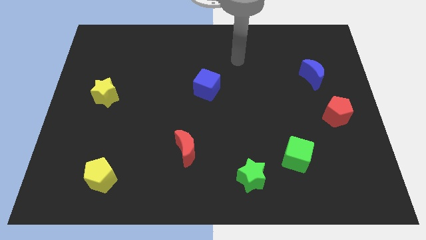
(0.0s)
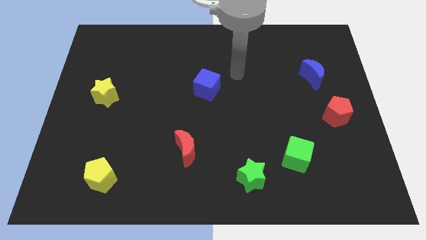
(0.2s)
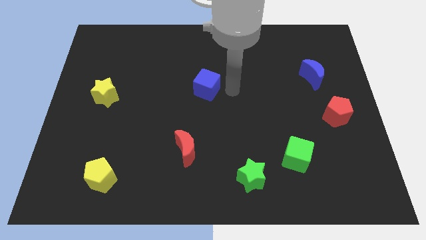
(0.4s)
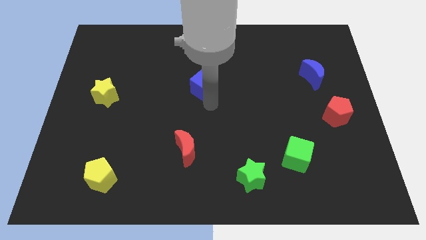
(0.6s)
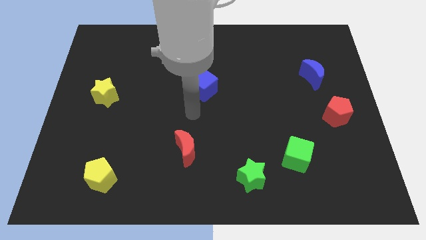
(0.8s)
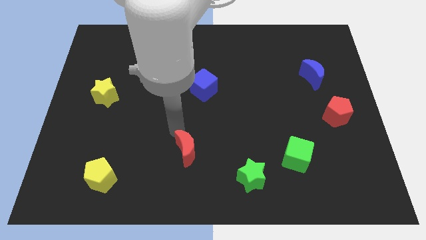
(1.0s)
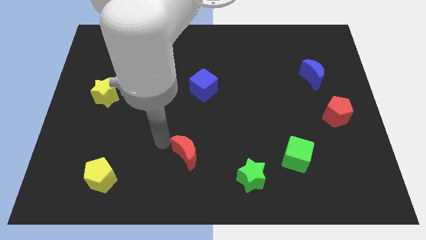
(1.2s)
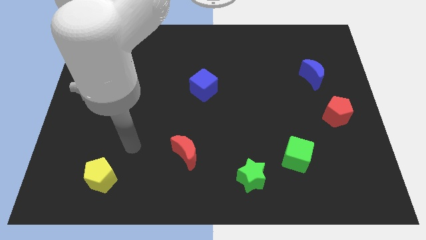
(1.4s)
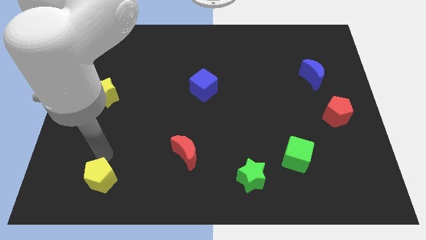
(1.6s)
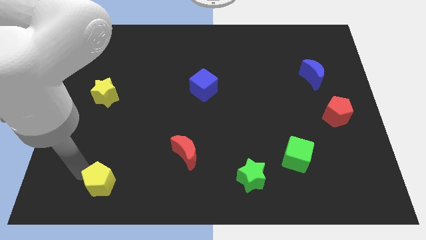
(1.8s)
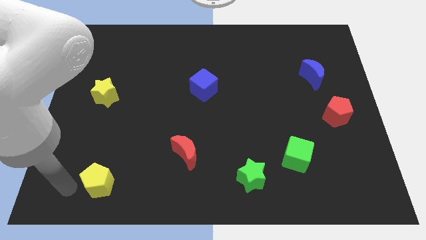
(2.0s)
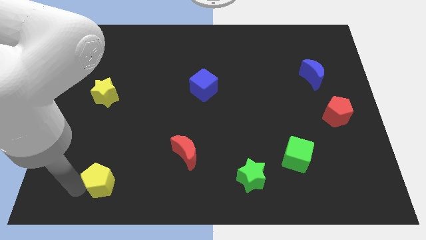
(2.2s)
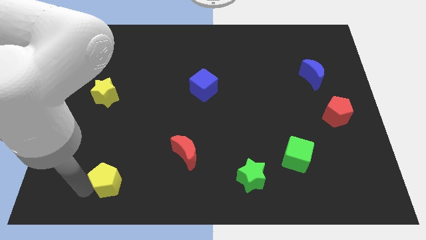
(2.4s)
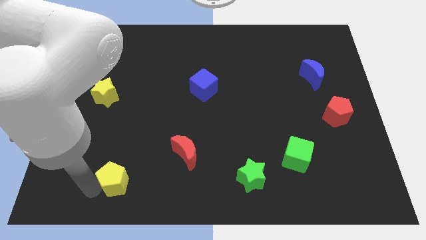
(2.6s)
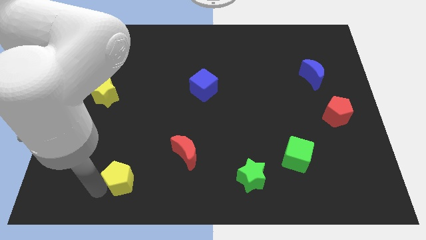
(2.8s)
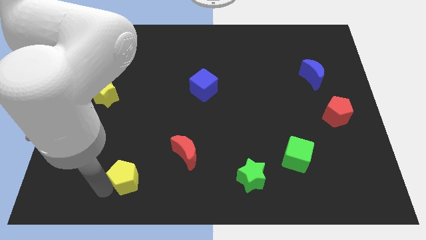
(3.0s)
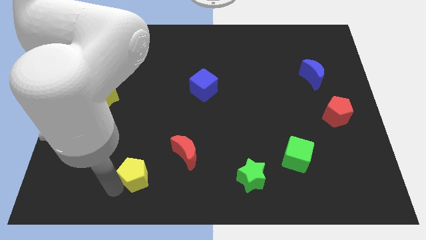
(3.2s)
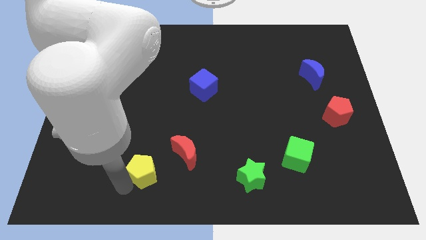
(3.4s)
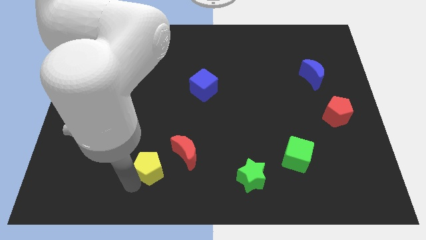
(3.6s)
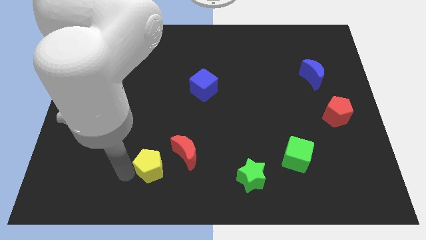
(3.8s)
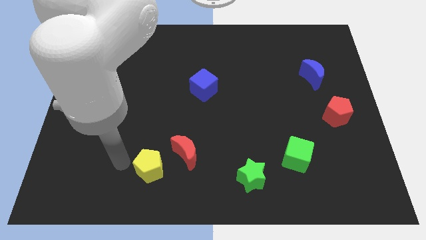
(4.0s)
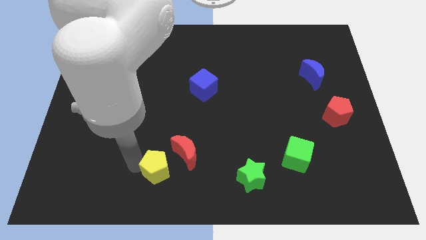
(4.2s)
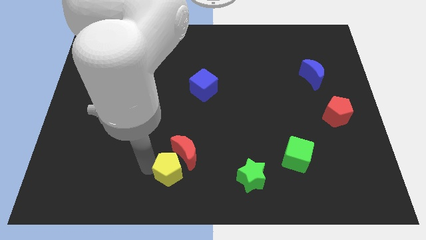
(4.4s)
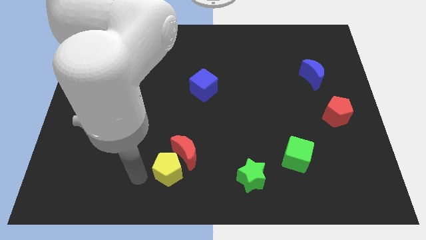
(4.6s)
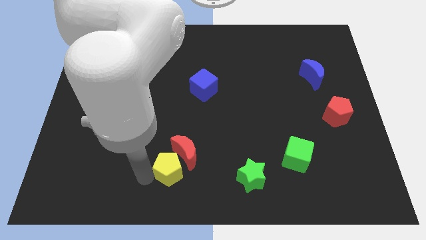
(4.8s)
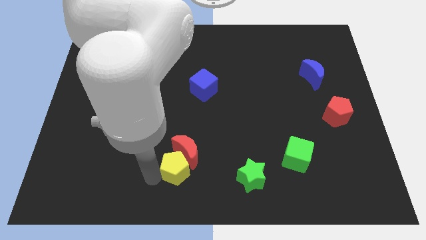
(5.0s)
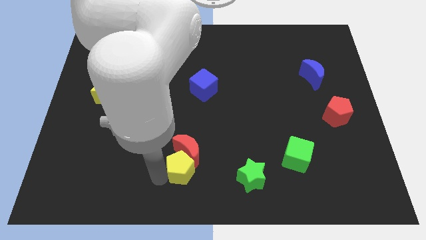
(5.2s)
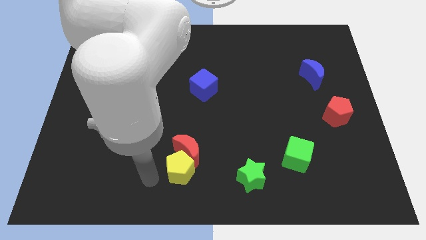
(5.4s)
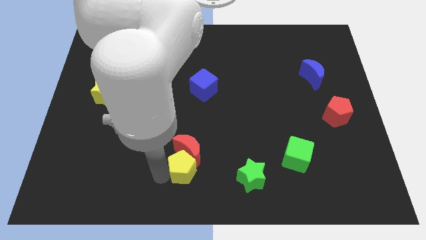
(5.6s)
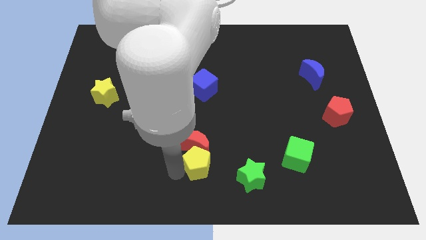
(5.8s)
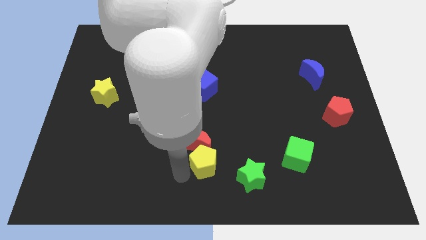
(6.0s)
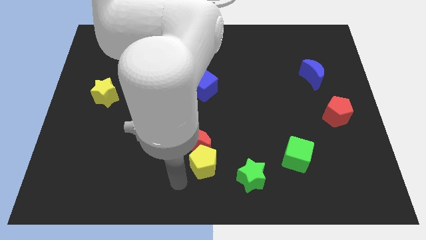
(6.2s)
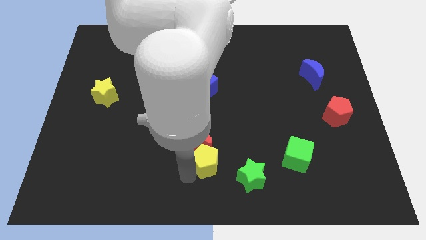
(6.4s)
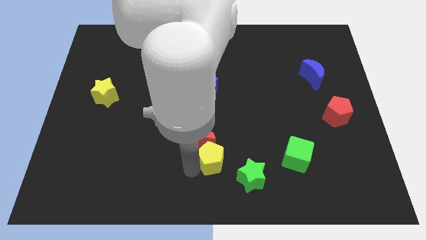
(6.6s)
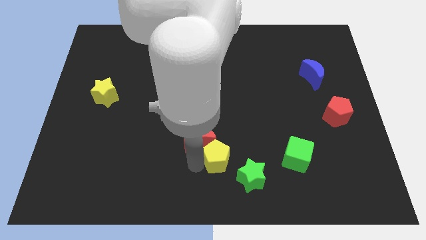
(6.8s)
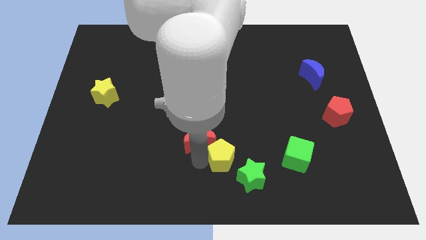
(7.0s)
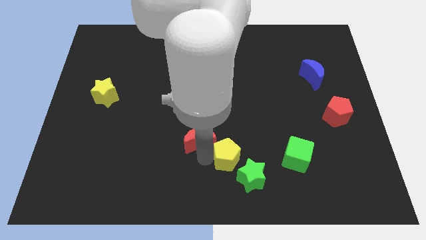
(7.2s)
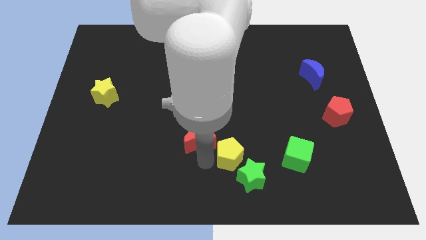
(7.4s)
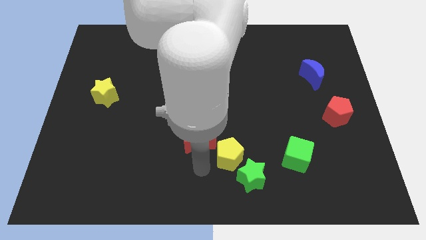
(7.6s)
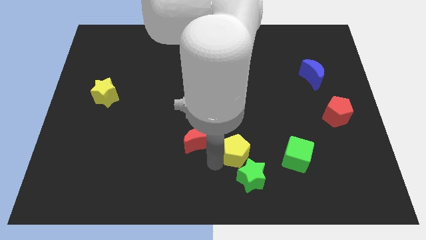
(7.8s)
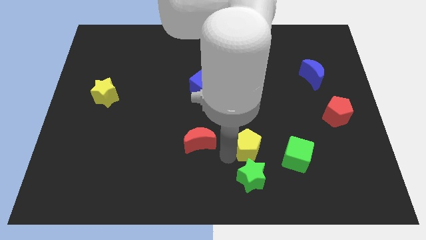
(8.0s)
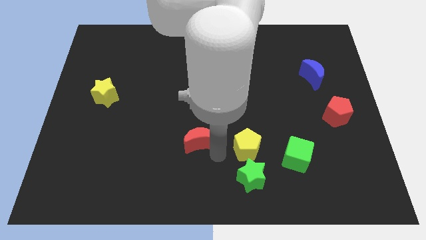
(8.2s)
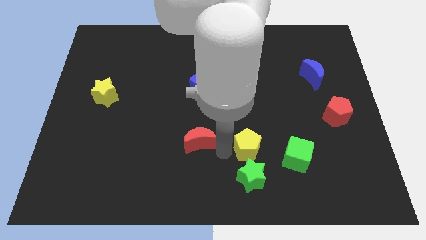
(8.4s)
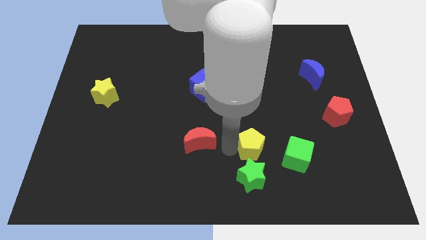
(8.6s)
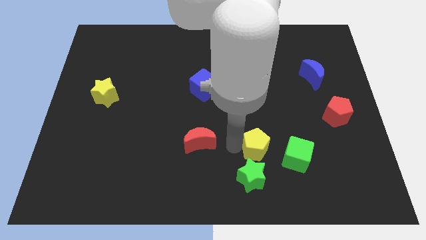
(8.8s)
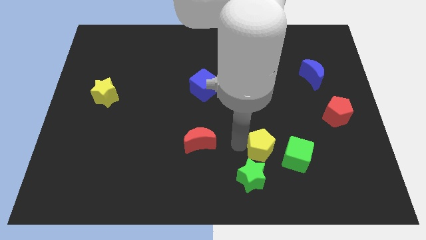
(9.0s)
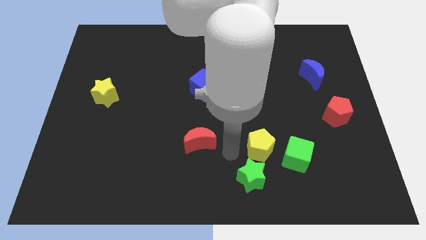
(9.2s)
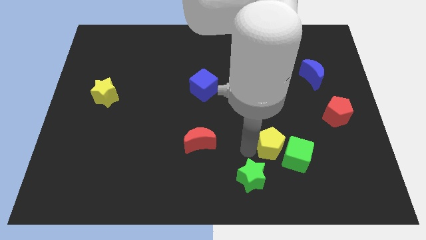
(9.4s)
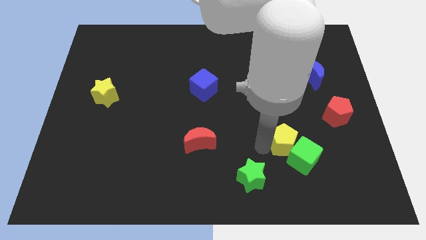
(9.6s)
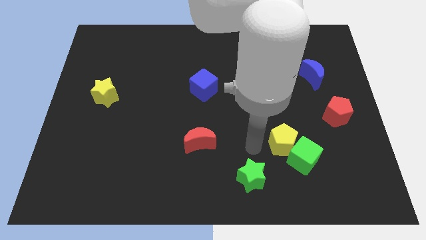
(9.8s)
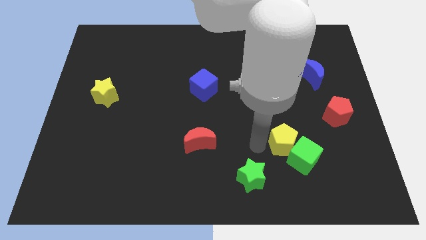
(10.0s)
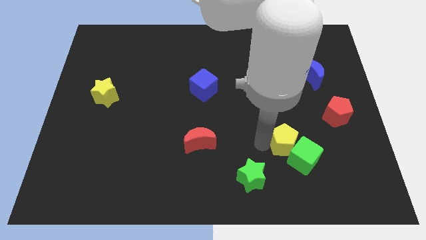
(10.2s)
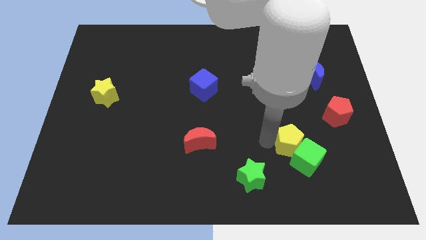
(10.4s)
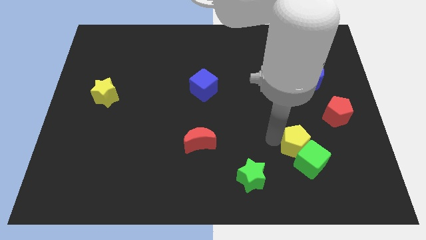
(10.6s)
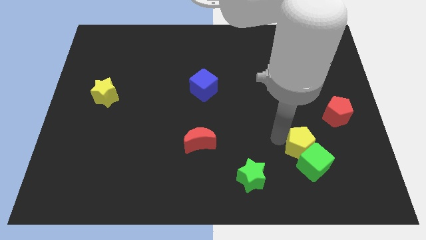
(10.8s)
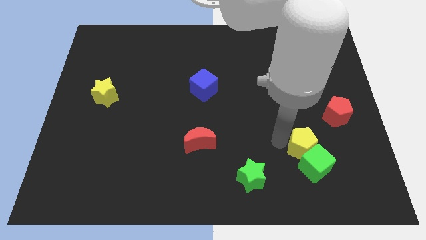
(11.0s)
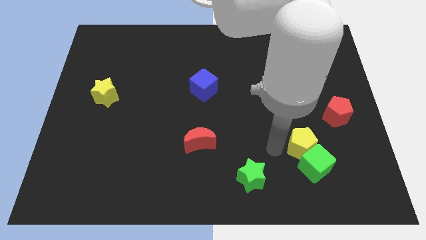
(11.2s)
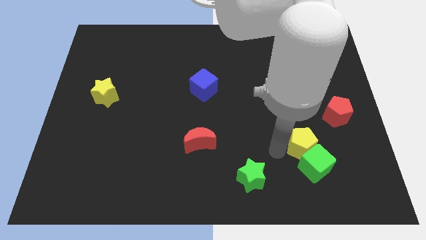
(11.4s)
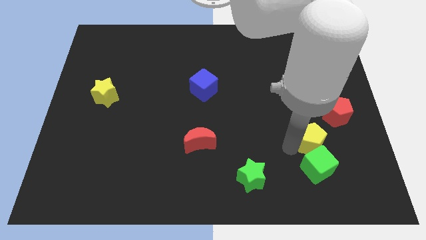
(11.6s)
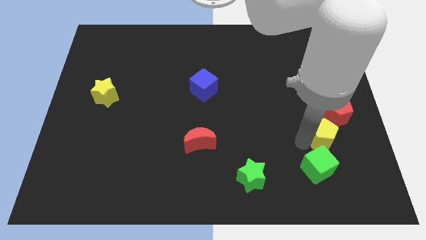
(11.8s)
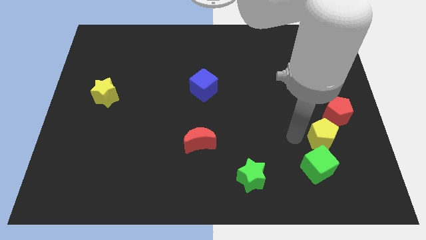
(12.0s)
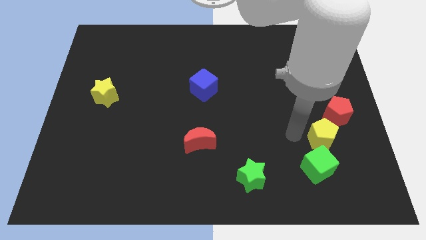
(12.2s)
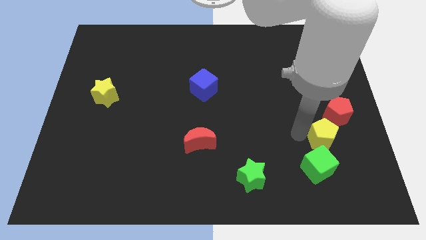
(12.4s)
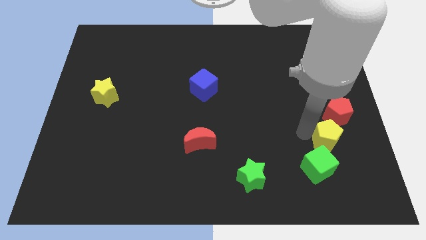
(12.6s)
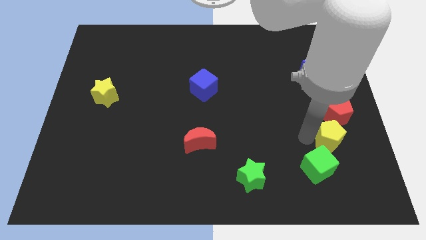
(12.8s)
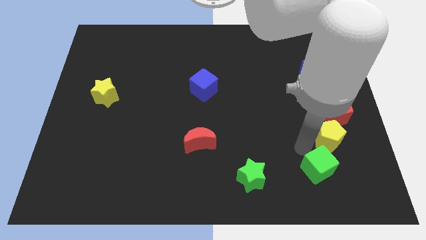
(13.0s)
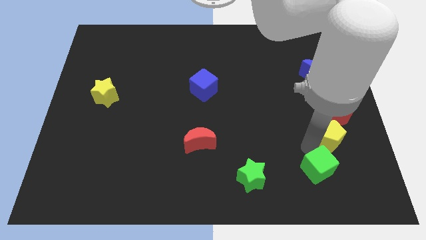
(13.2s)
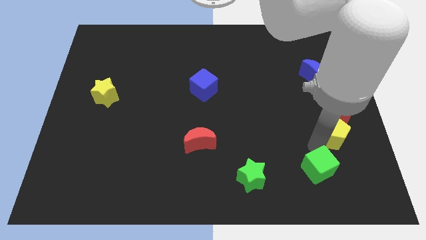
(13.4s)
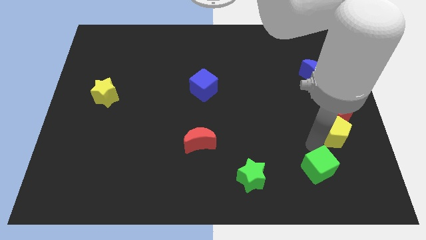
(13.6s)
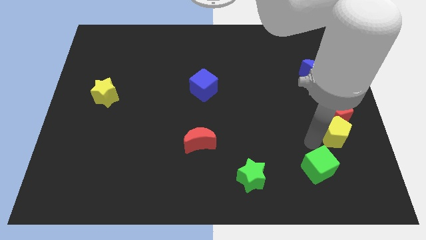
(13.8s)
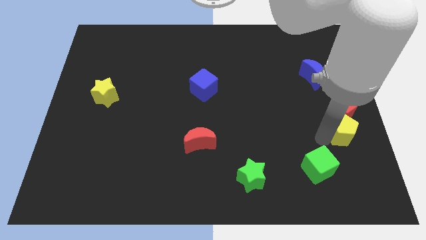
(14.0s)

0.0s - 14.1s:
move the yellow pentagon to the center right
